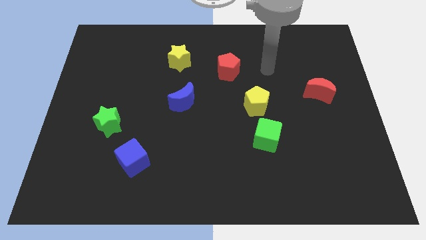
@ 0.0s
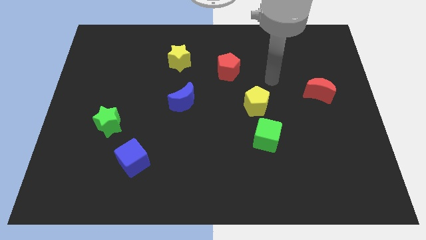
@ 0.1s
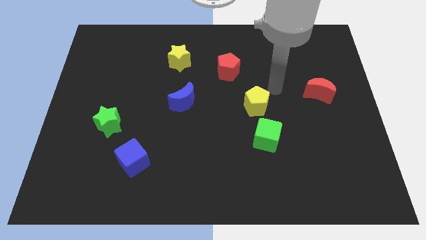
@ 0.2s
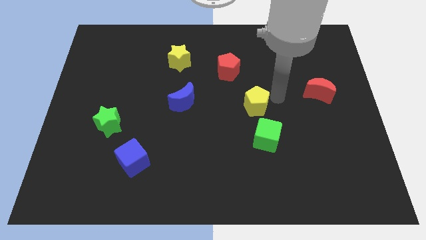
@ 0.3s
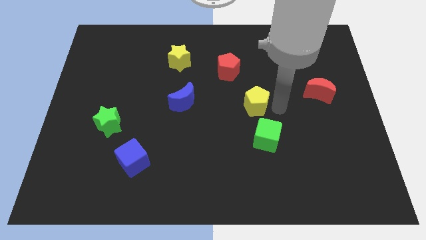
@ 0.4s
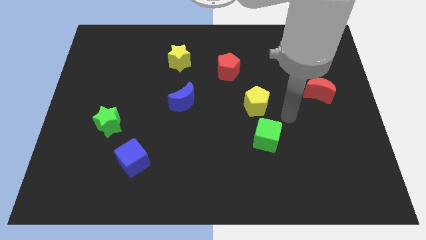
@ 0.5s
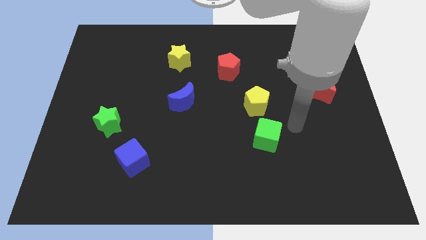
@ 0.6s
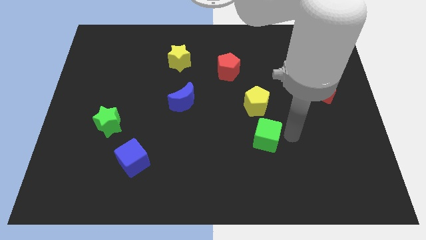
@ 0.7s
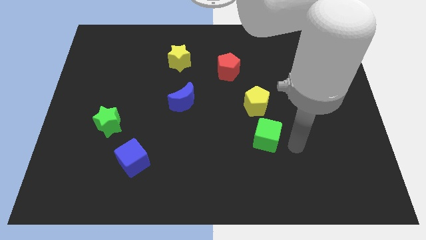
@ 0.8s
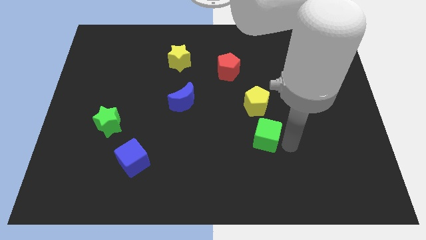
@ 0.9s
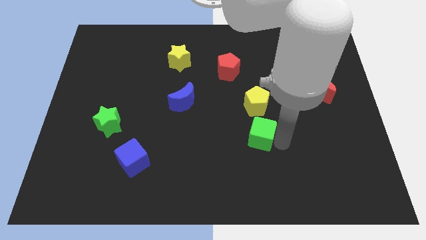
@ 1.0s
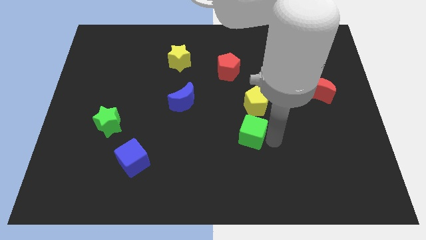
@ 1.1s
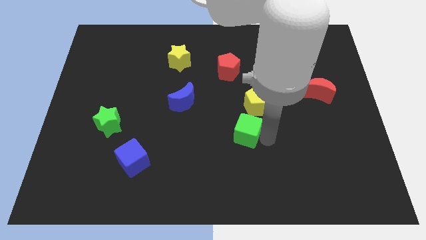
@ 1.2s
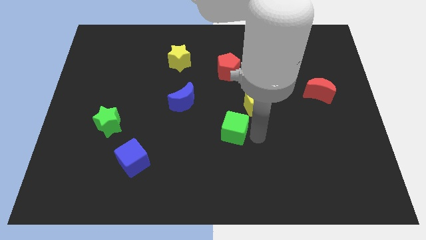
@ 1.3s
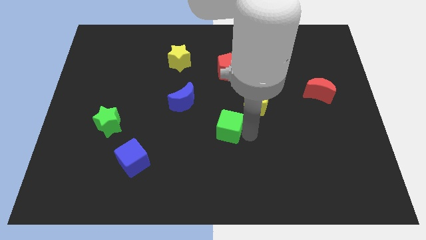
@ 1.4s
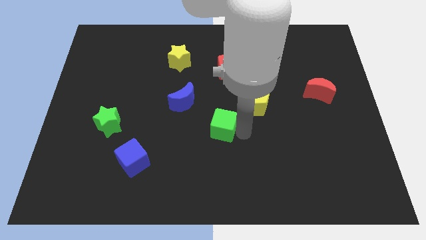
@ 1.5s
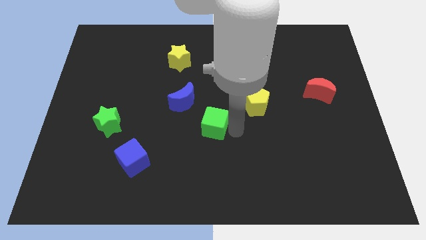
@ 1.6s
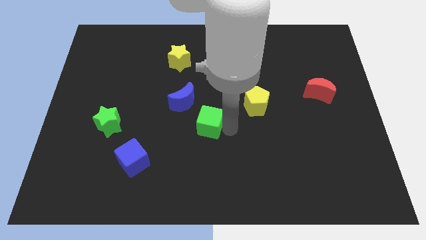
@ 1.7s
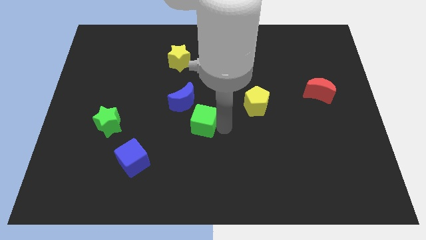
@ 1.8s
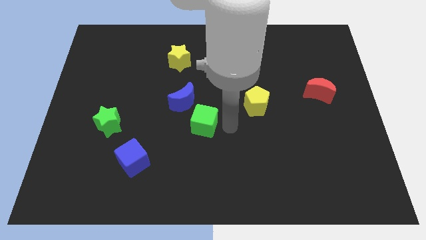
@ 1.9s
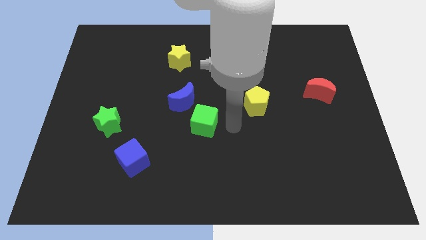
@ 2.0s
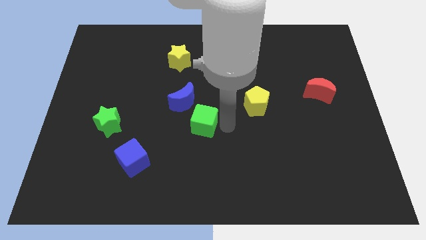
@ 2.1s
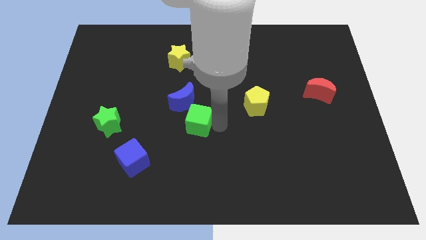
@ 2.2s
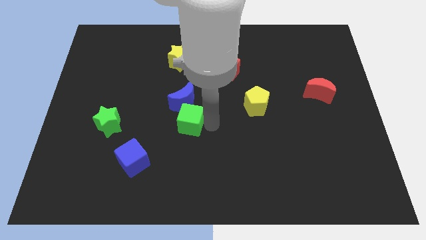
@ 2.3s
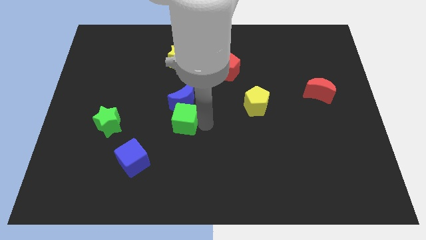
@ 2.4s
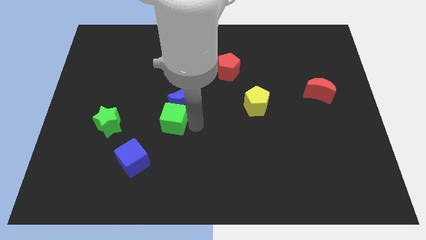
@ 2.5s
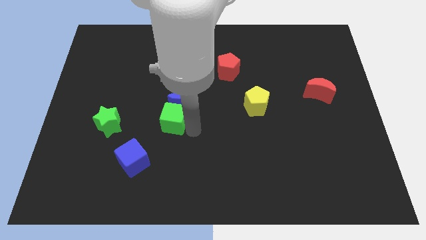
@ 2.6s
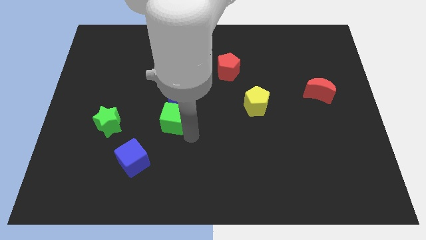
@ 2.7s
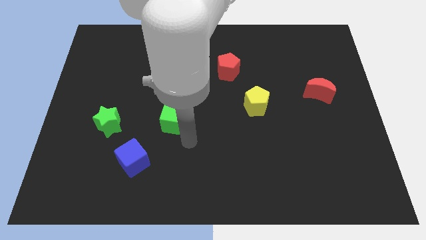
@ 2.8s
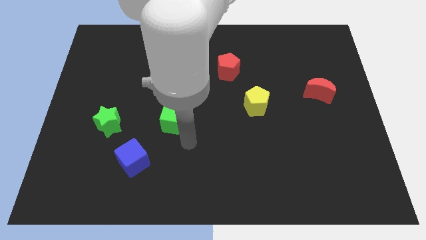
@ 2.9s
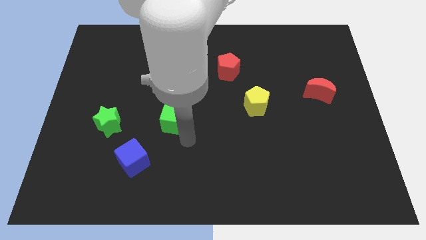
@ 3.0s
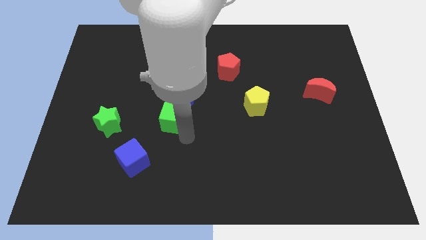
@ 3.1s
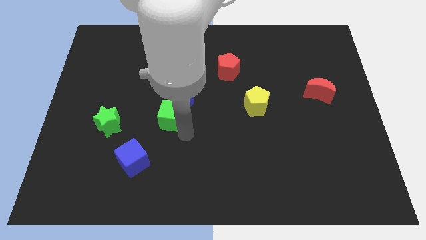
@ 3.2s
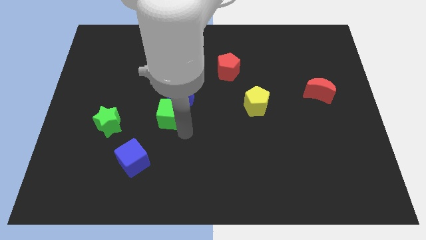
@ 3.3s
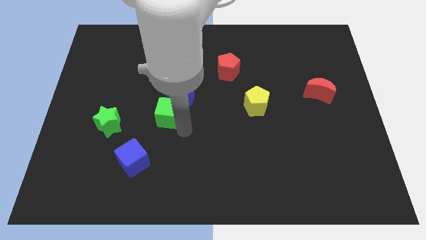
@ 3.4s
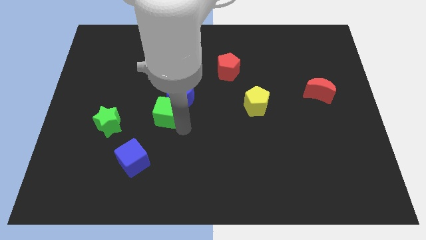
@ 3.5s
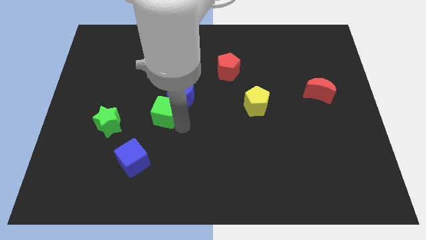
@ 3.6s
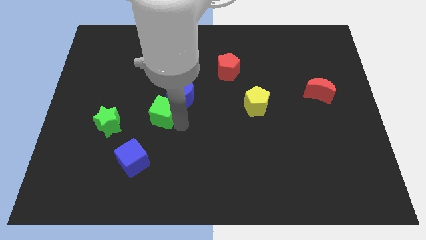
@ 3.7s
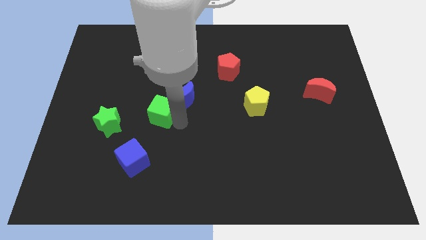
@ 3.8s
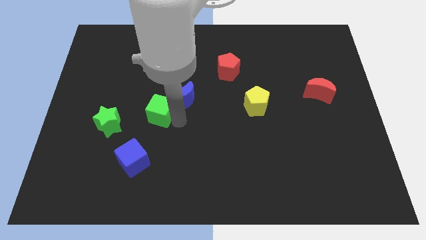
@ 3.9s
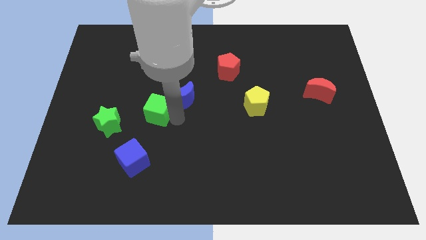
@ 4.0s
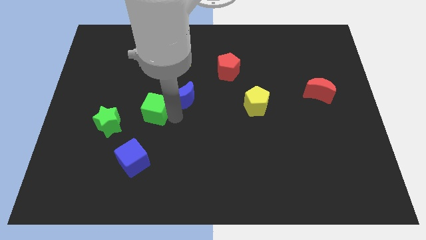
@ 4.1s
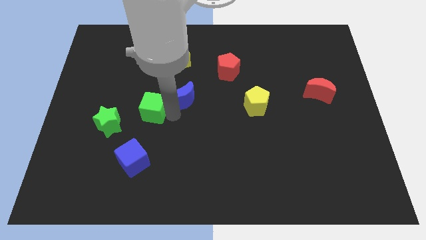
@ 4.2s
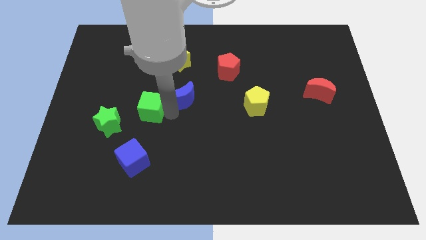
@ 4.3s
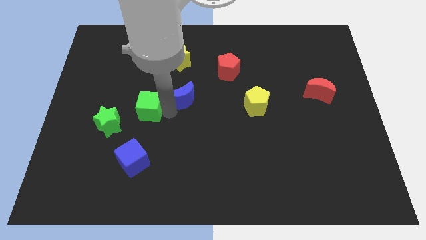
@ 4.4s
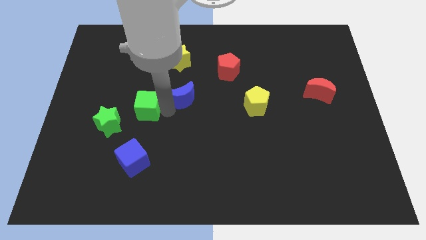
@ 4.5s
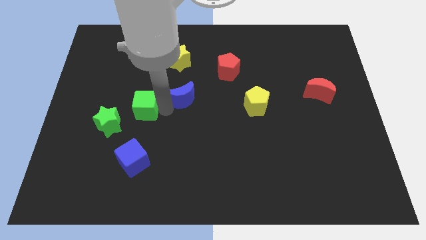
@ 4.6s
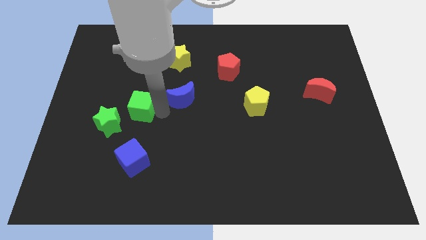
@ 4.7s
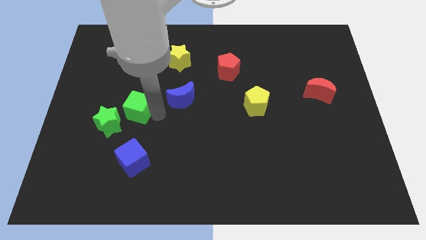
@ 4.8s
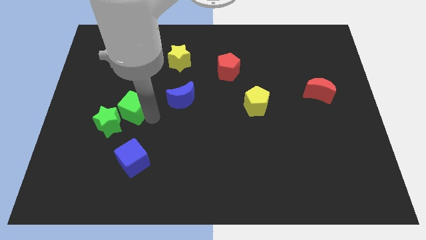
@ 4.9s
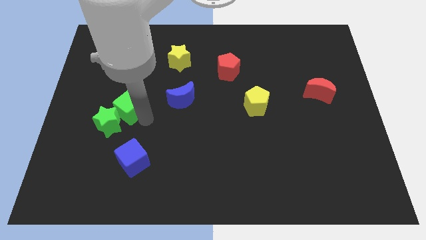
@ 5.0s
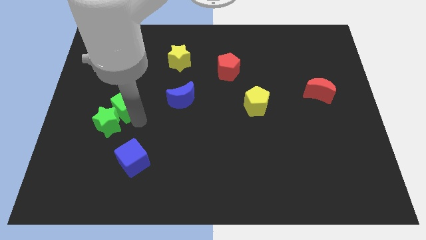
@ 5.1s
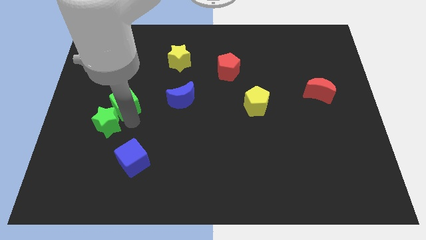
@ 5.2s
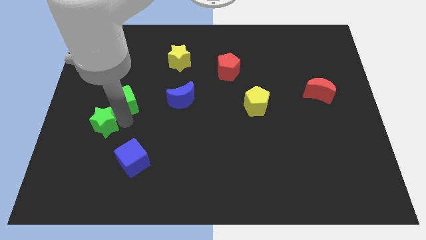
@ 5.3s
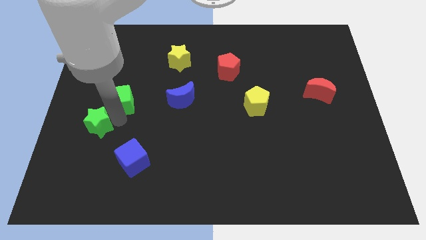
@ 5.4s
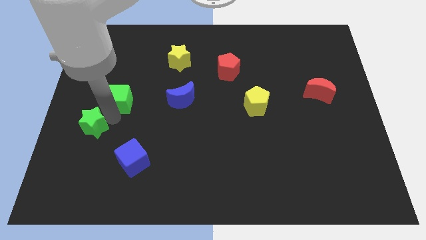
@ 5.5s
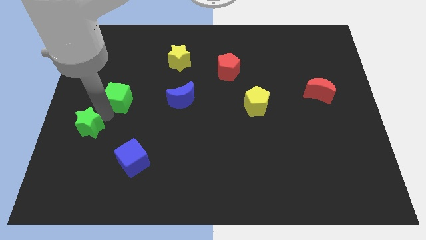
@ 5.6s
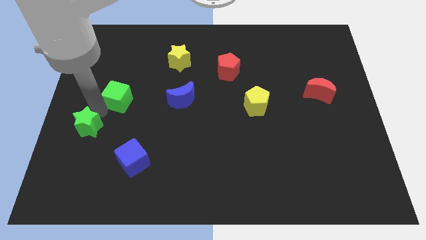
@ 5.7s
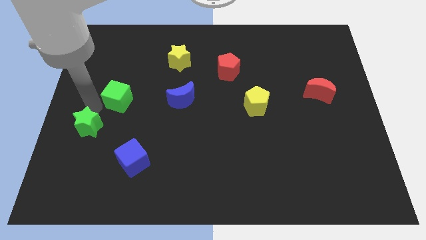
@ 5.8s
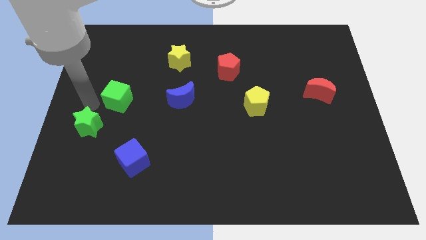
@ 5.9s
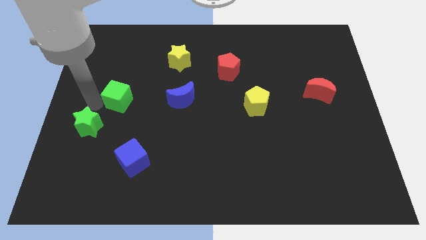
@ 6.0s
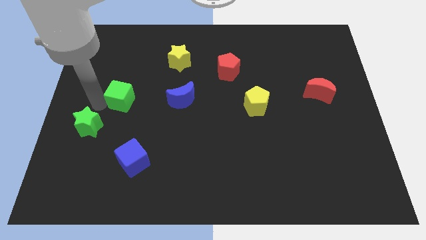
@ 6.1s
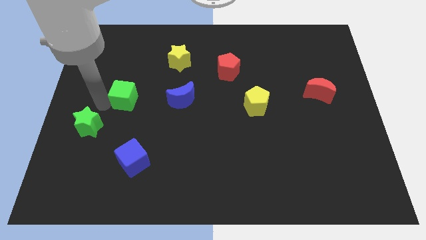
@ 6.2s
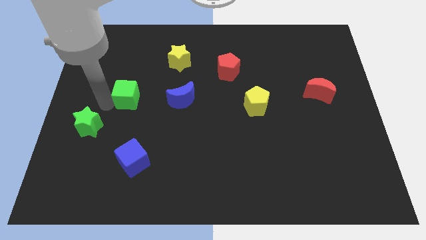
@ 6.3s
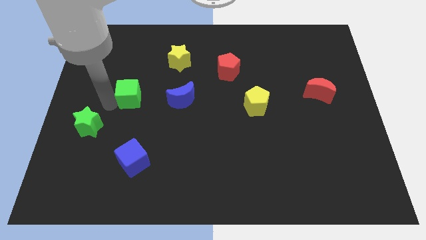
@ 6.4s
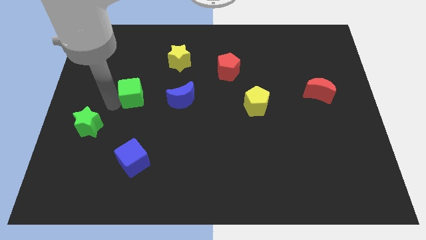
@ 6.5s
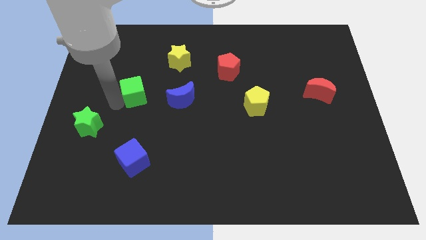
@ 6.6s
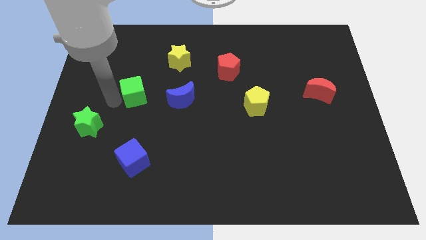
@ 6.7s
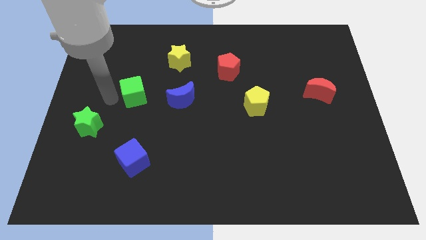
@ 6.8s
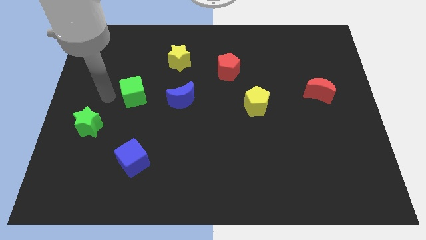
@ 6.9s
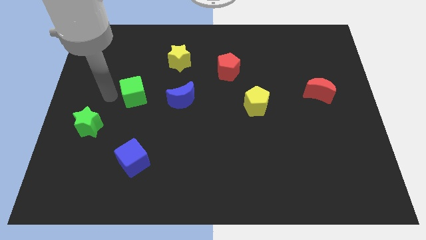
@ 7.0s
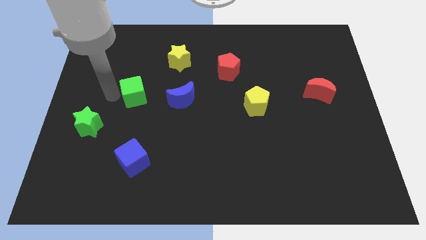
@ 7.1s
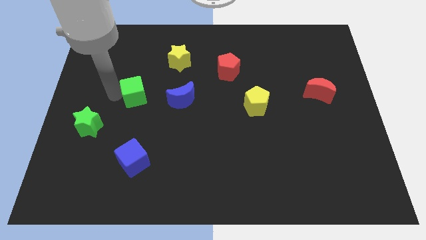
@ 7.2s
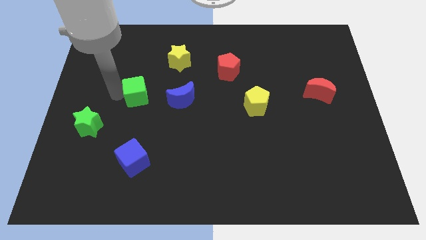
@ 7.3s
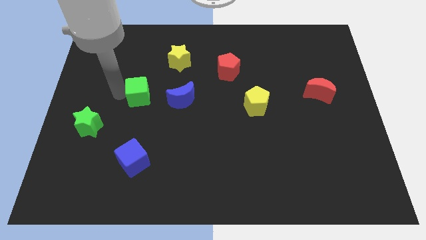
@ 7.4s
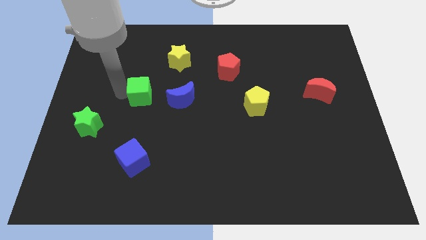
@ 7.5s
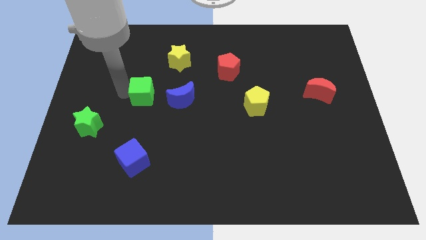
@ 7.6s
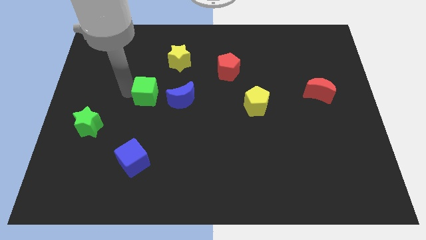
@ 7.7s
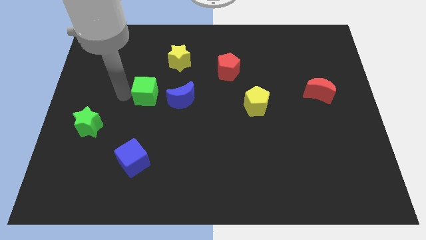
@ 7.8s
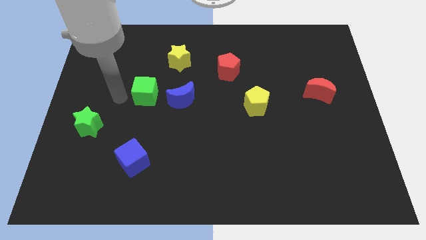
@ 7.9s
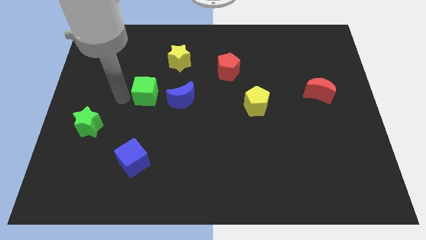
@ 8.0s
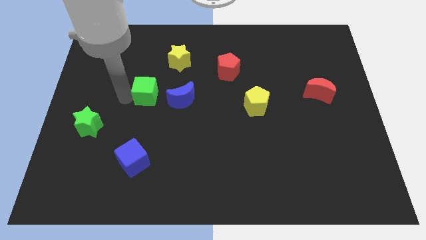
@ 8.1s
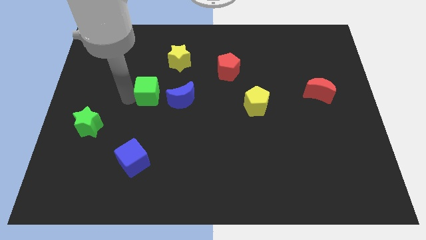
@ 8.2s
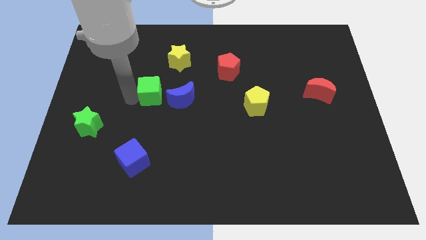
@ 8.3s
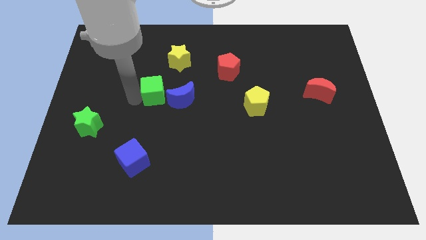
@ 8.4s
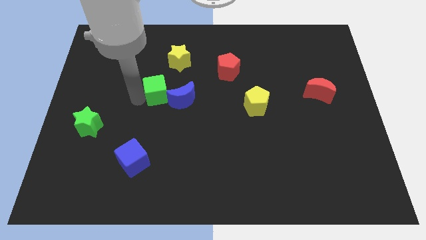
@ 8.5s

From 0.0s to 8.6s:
move the green cube below the yellow star
